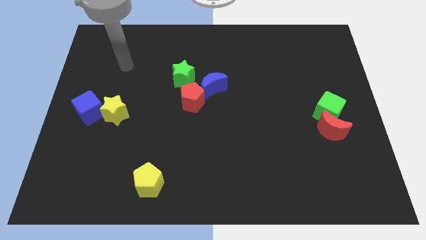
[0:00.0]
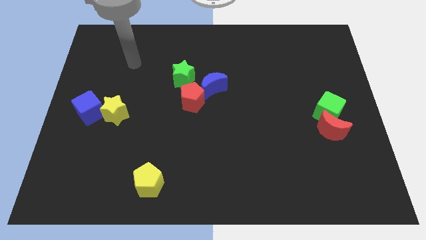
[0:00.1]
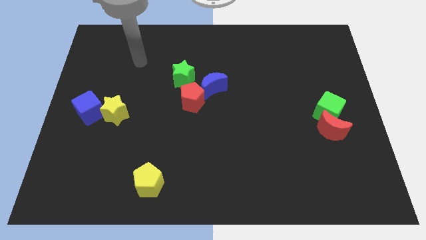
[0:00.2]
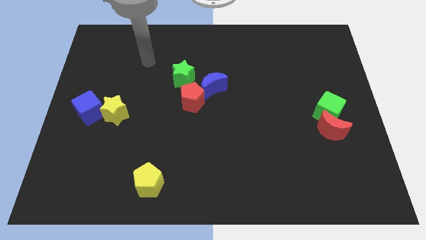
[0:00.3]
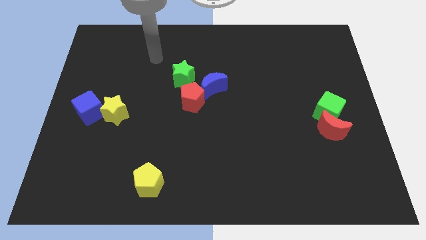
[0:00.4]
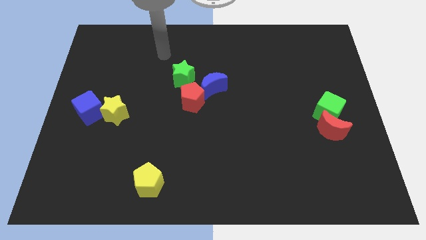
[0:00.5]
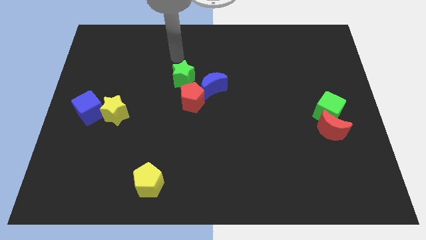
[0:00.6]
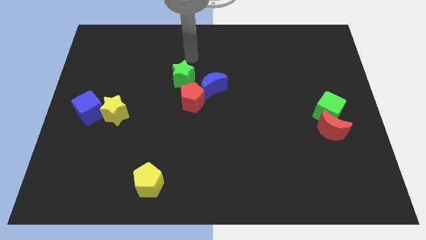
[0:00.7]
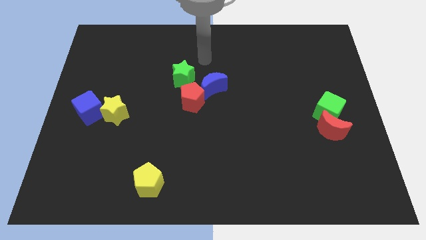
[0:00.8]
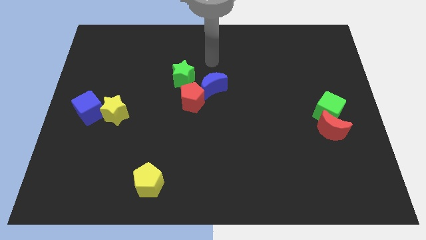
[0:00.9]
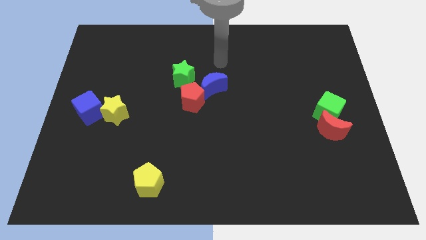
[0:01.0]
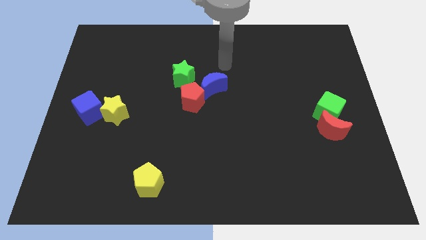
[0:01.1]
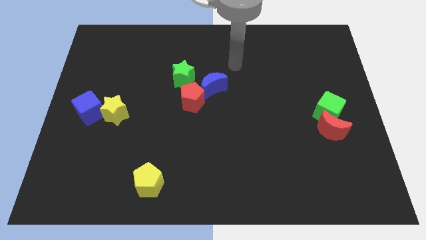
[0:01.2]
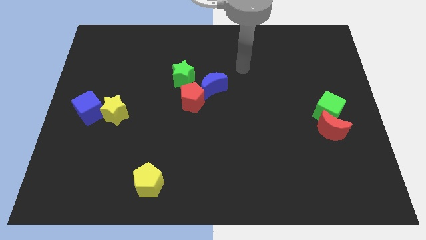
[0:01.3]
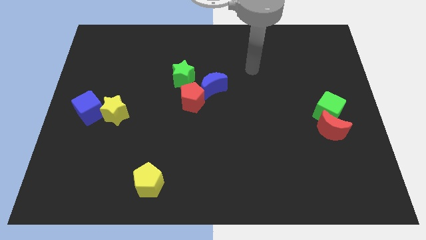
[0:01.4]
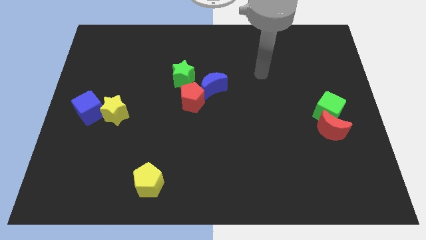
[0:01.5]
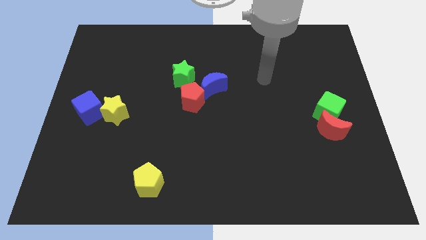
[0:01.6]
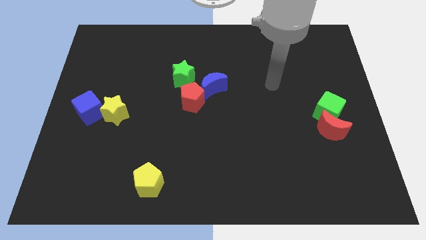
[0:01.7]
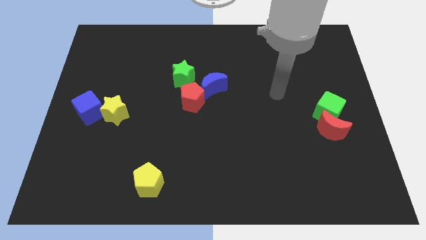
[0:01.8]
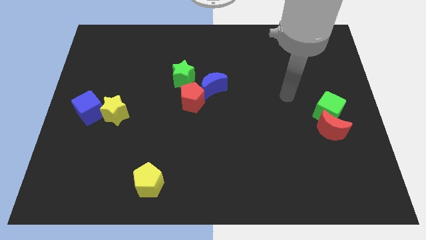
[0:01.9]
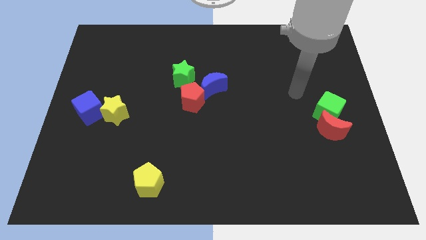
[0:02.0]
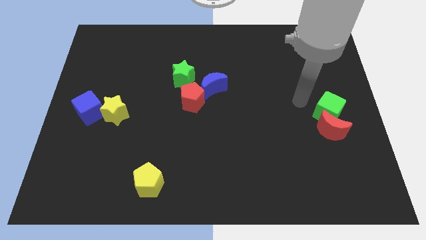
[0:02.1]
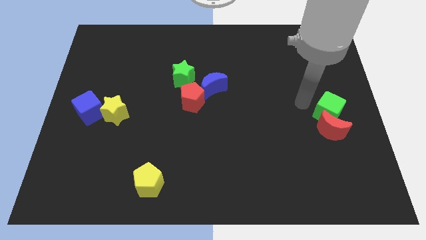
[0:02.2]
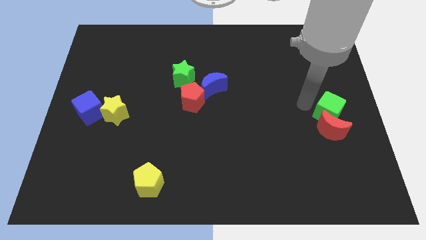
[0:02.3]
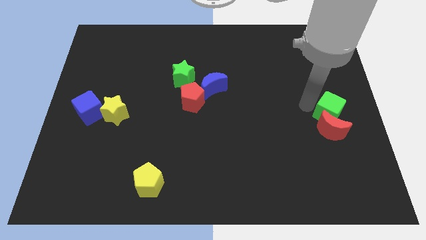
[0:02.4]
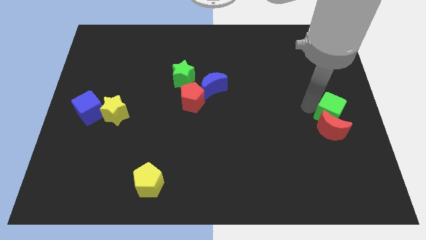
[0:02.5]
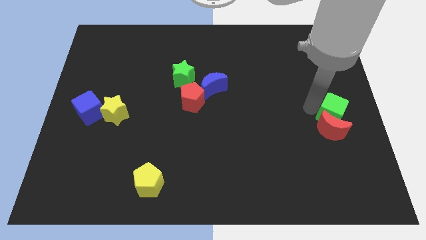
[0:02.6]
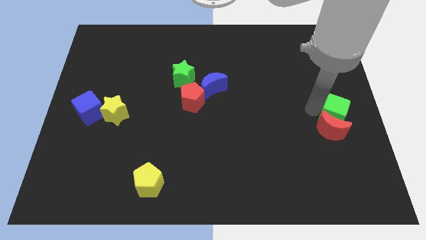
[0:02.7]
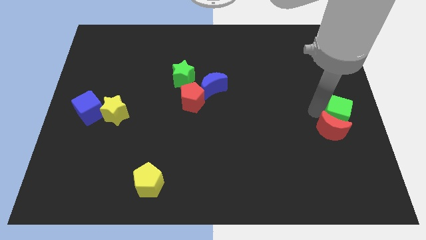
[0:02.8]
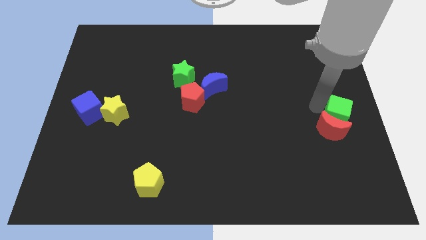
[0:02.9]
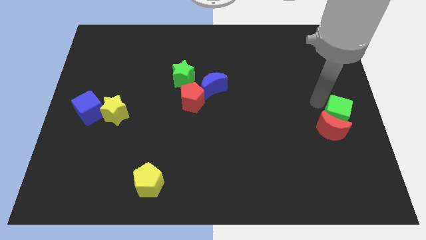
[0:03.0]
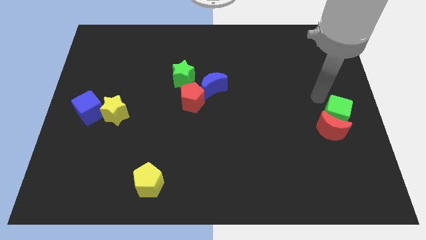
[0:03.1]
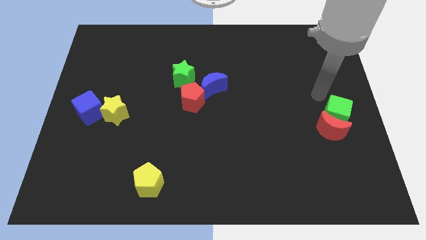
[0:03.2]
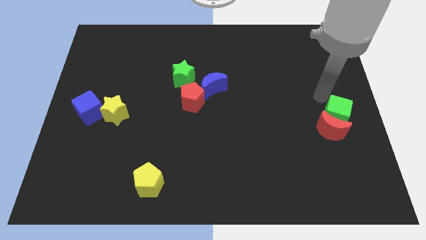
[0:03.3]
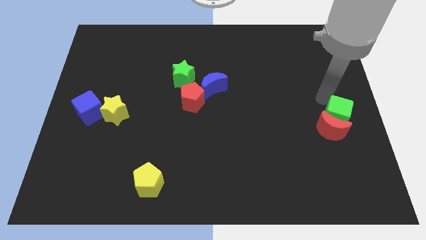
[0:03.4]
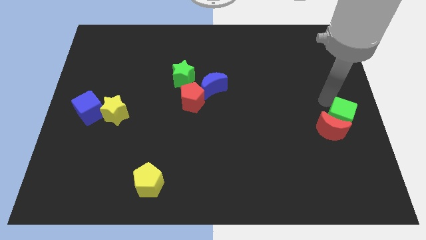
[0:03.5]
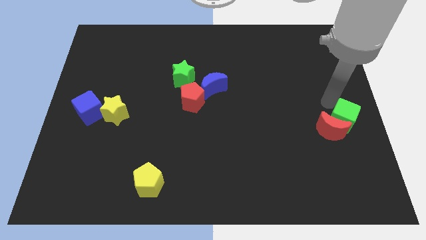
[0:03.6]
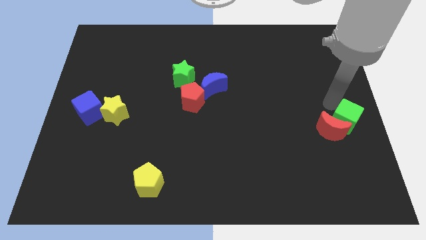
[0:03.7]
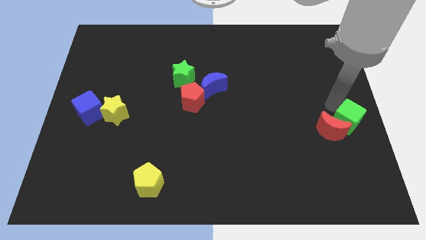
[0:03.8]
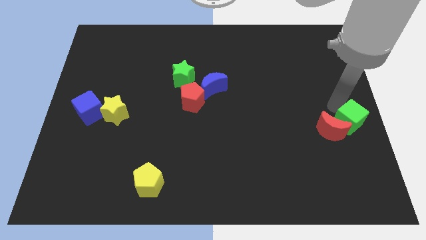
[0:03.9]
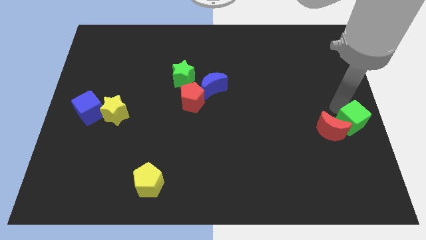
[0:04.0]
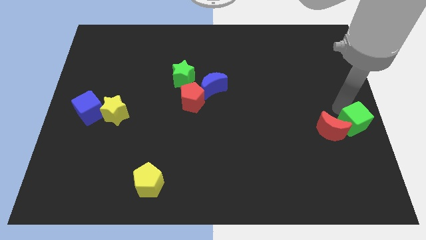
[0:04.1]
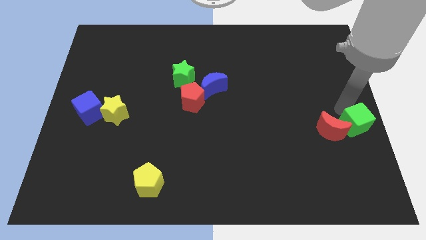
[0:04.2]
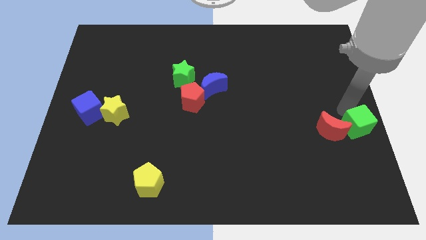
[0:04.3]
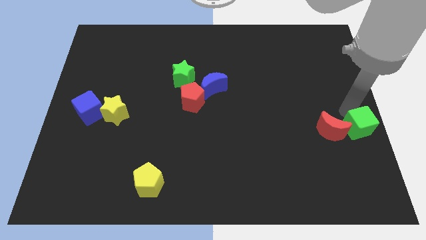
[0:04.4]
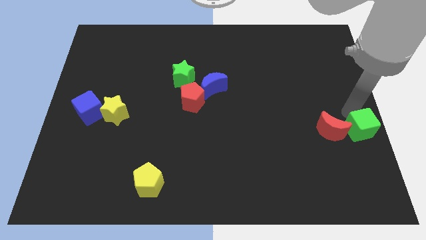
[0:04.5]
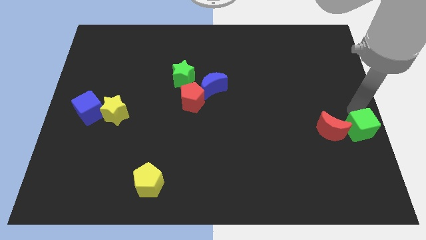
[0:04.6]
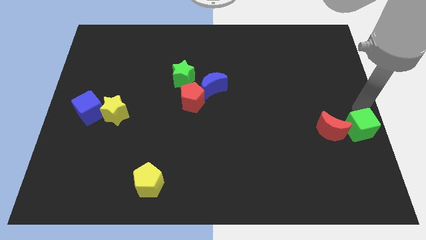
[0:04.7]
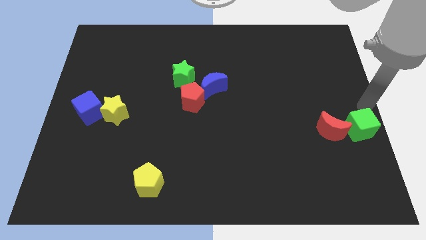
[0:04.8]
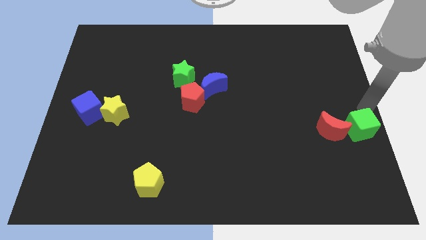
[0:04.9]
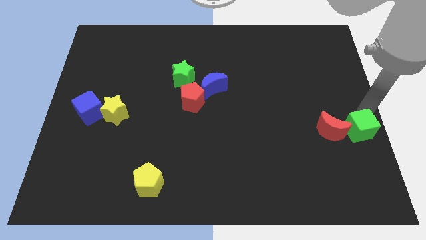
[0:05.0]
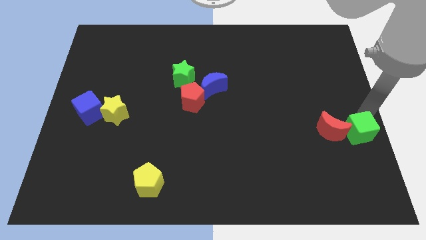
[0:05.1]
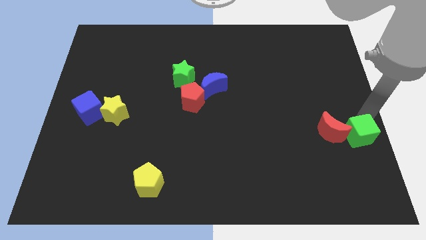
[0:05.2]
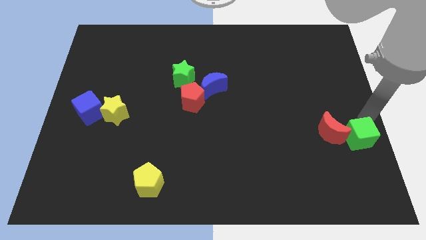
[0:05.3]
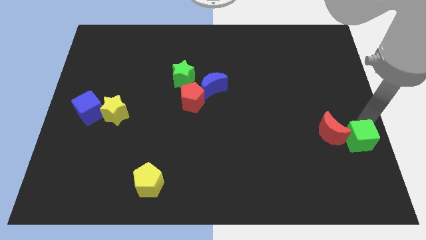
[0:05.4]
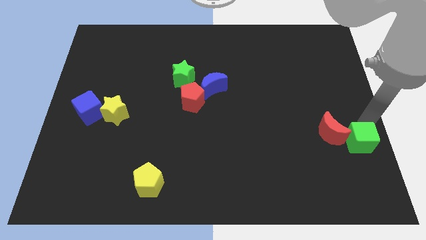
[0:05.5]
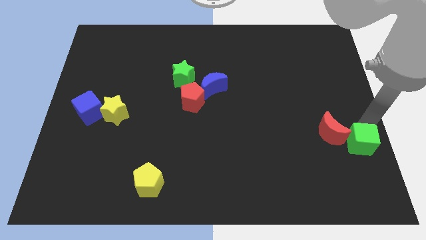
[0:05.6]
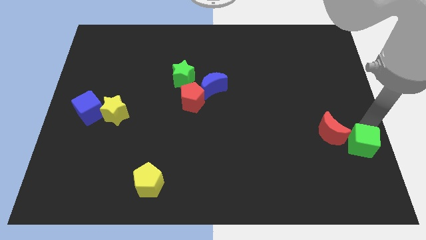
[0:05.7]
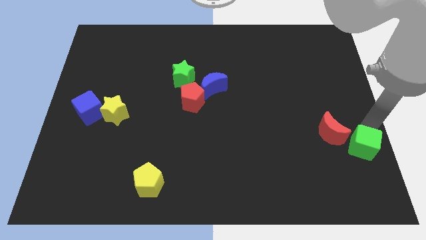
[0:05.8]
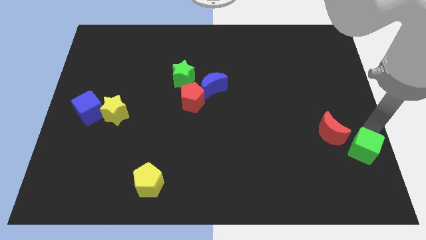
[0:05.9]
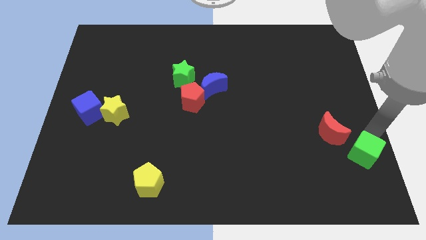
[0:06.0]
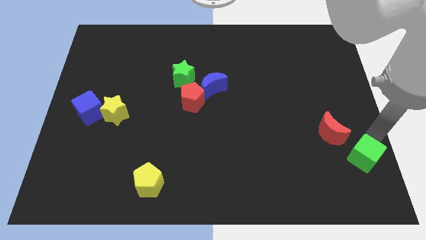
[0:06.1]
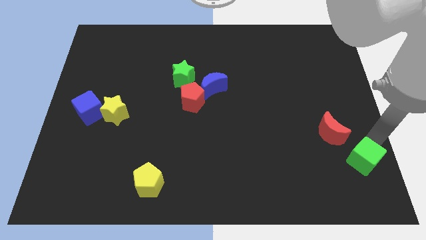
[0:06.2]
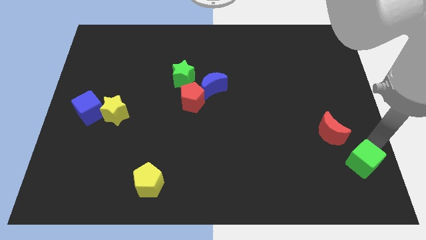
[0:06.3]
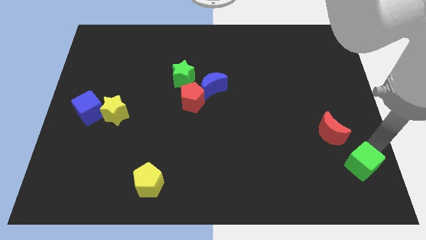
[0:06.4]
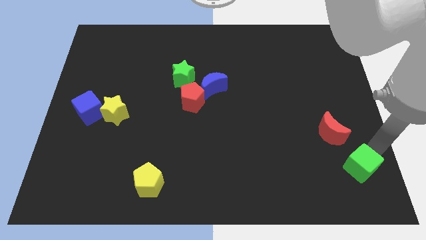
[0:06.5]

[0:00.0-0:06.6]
slide the green cube to the bottom side of the red moon
